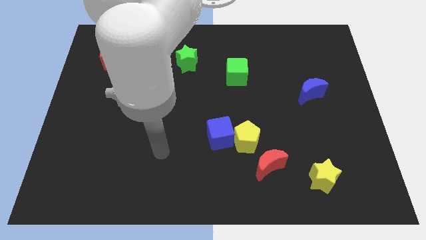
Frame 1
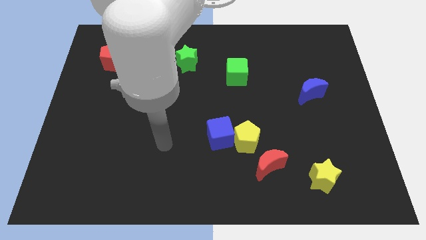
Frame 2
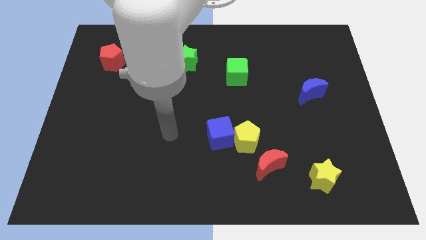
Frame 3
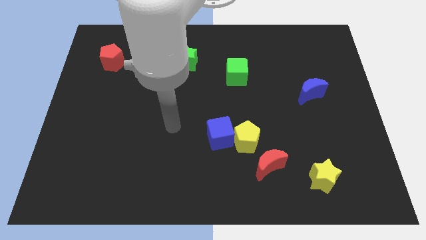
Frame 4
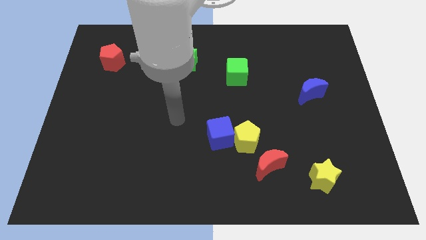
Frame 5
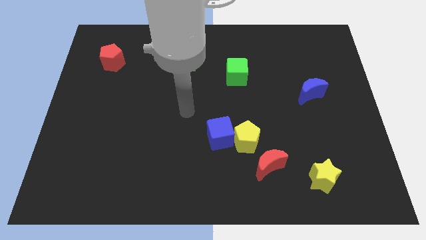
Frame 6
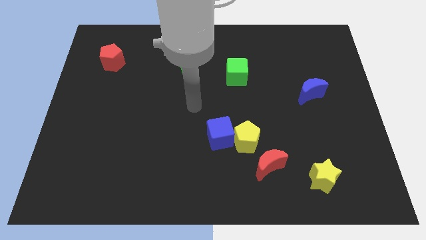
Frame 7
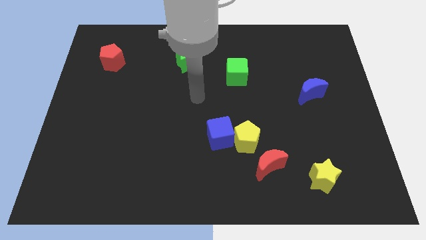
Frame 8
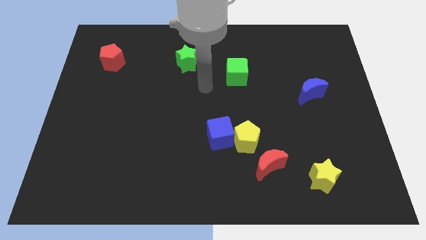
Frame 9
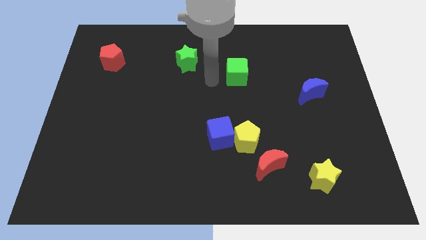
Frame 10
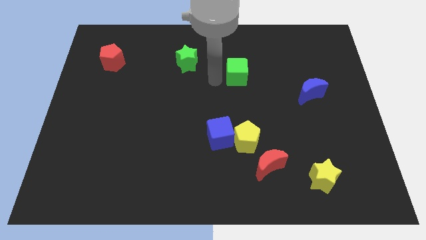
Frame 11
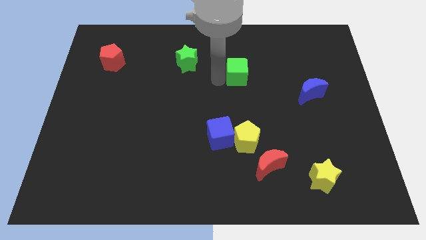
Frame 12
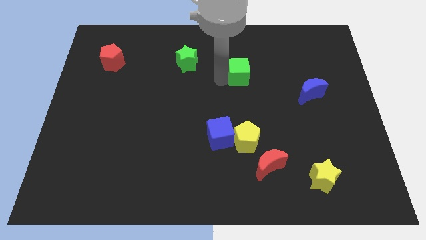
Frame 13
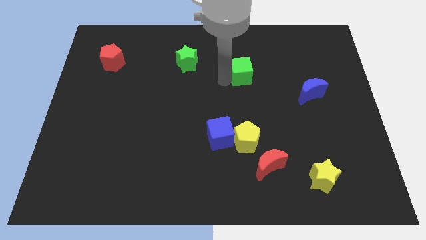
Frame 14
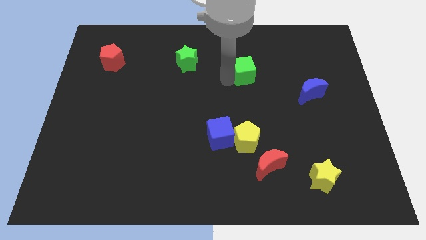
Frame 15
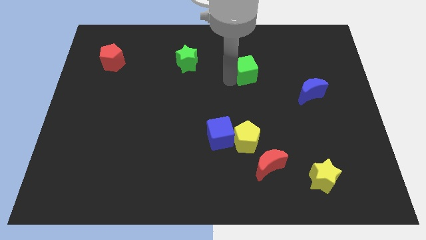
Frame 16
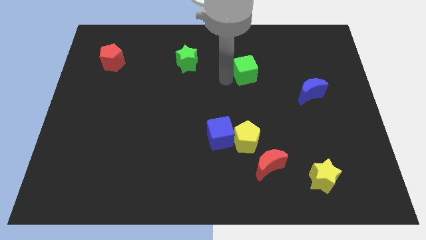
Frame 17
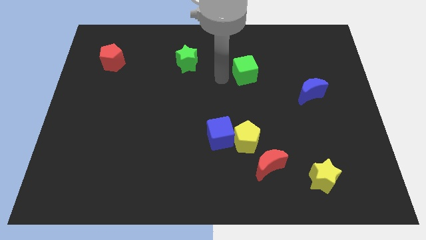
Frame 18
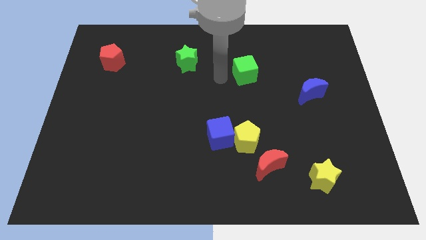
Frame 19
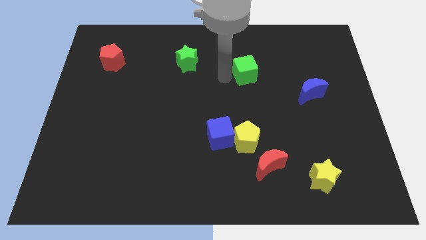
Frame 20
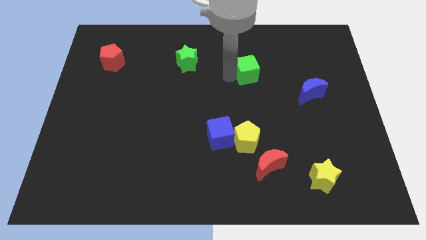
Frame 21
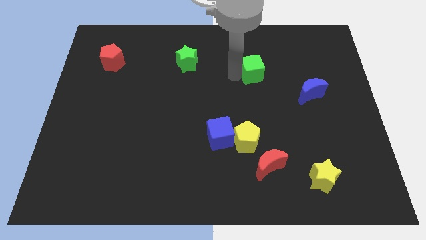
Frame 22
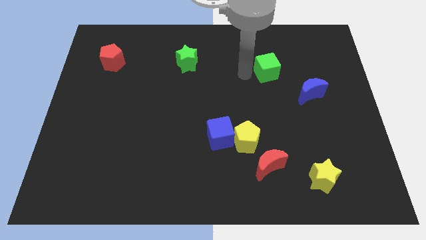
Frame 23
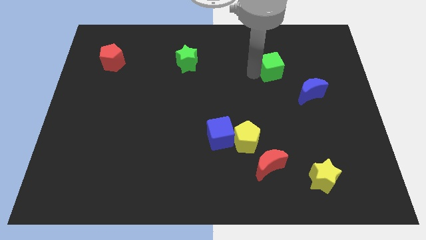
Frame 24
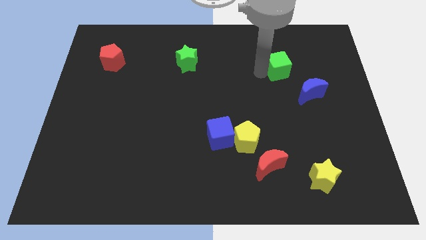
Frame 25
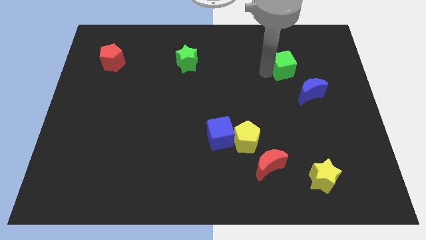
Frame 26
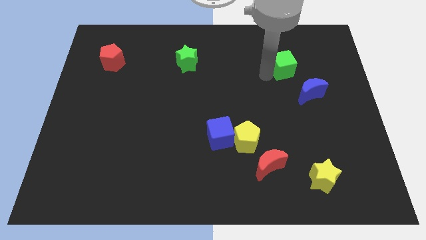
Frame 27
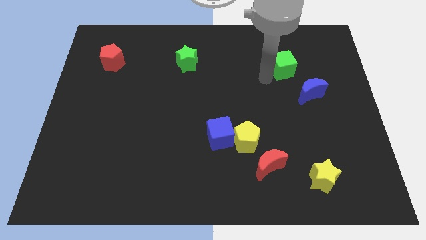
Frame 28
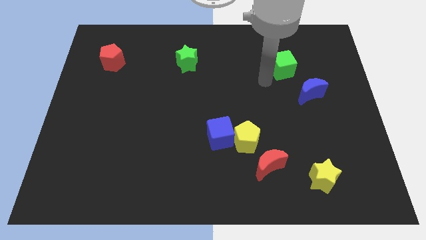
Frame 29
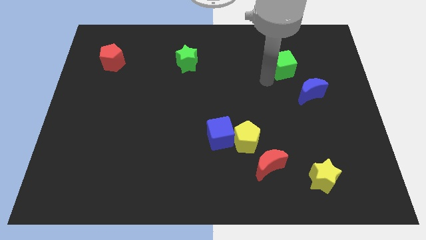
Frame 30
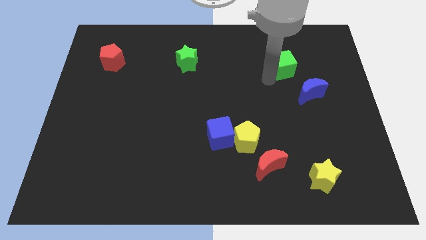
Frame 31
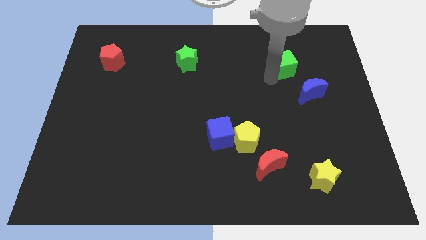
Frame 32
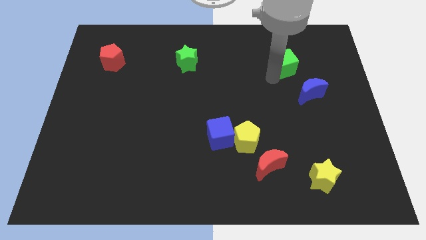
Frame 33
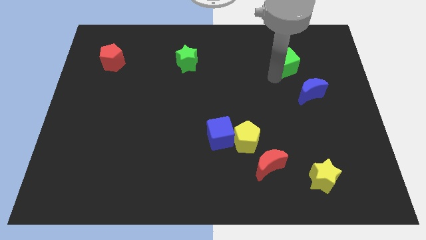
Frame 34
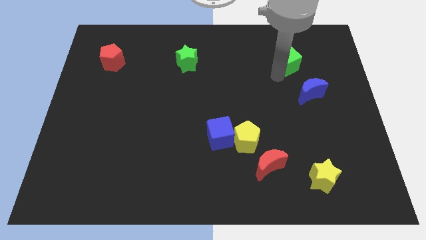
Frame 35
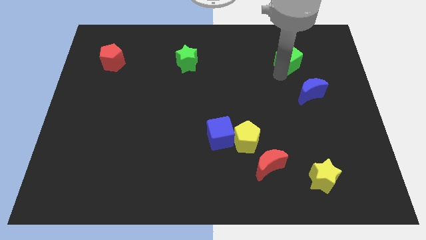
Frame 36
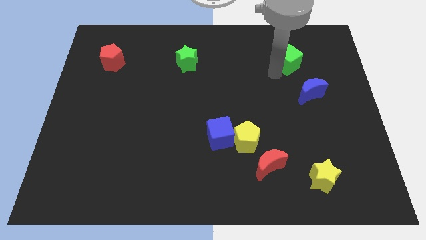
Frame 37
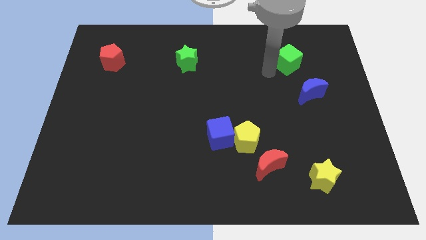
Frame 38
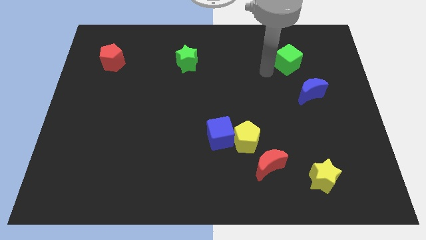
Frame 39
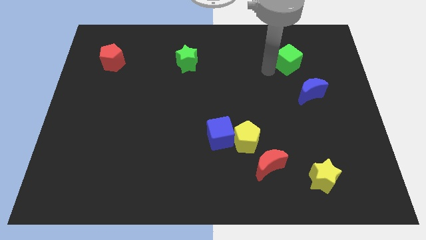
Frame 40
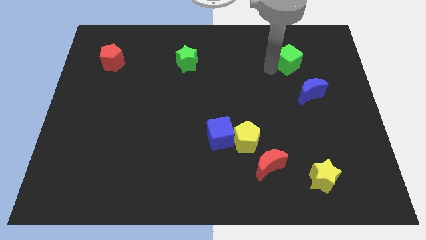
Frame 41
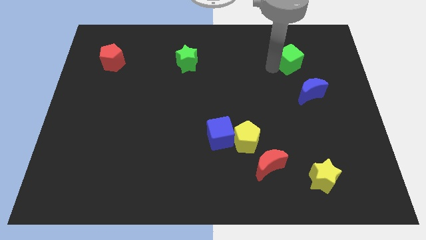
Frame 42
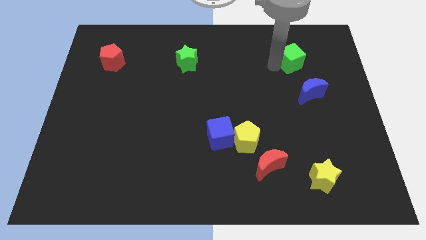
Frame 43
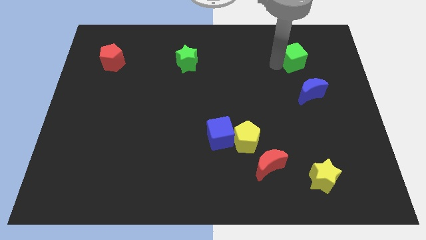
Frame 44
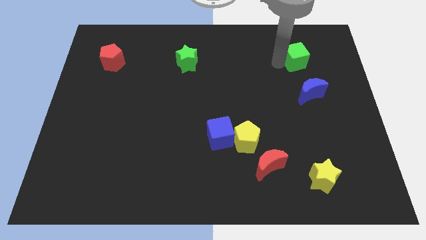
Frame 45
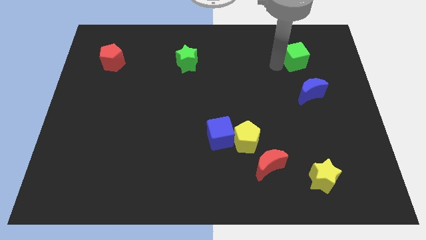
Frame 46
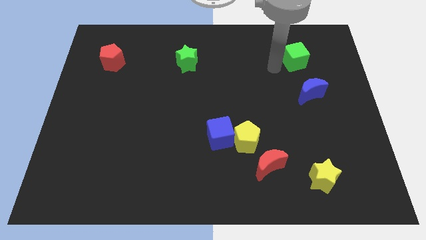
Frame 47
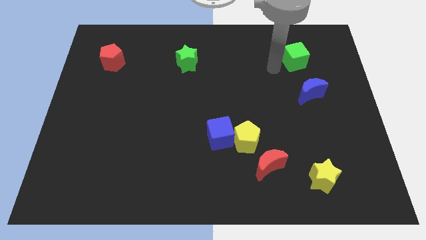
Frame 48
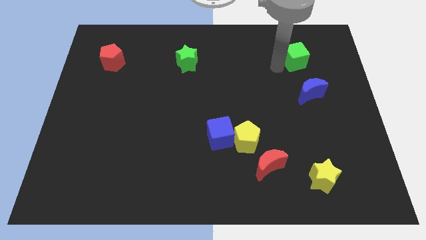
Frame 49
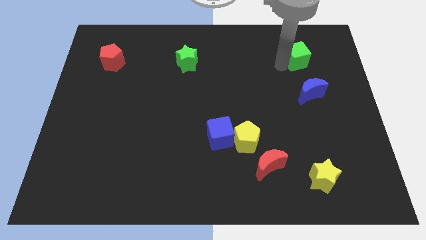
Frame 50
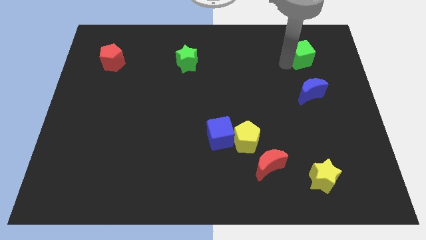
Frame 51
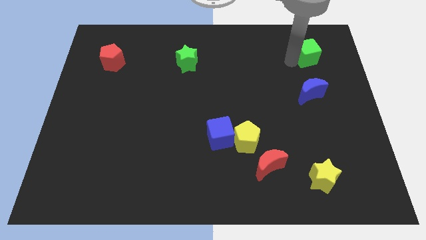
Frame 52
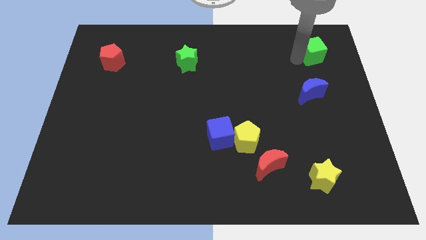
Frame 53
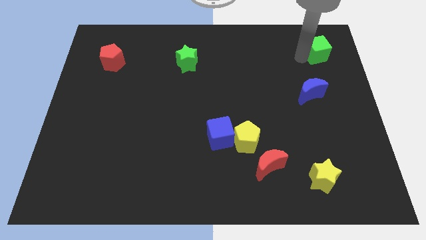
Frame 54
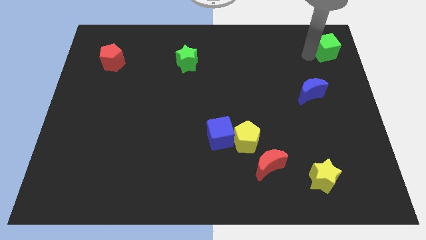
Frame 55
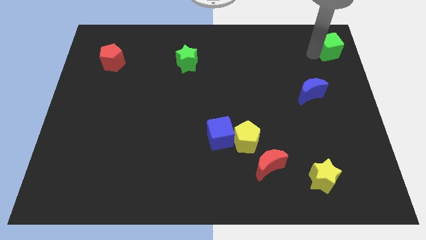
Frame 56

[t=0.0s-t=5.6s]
slide the green cube to the top right corner

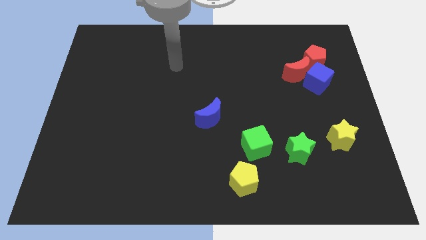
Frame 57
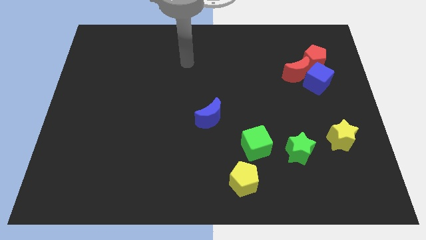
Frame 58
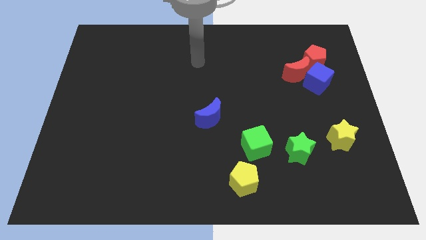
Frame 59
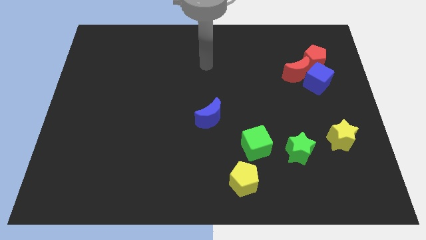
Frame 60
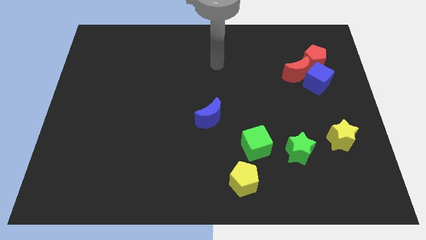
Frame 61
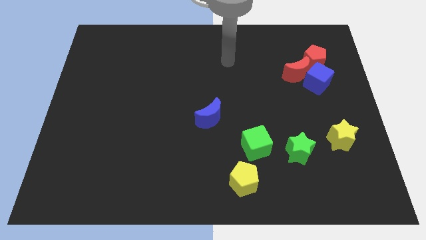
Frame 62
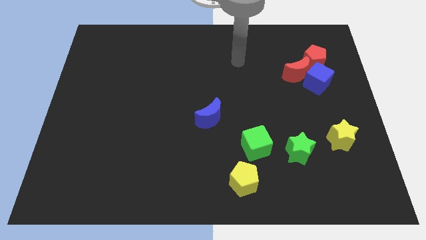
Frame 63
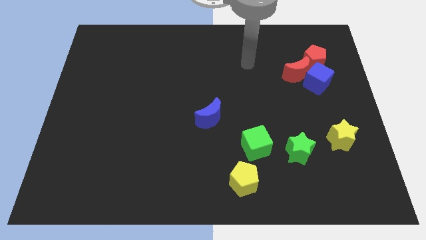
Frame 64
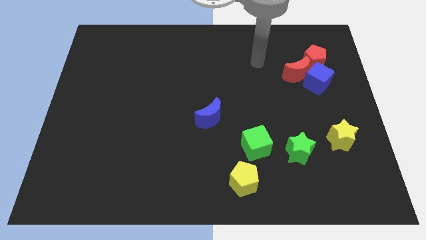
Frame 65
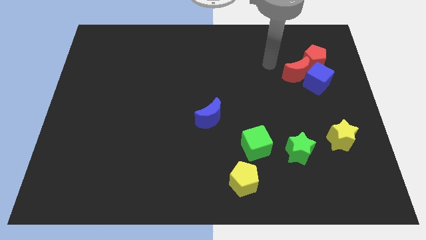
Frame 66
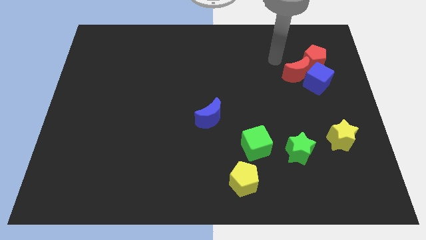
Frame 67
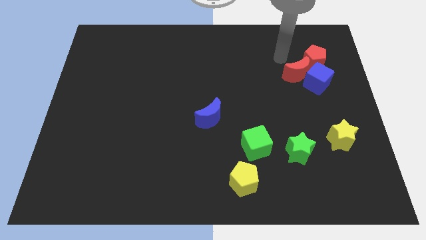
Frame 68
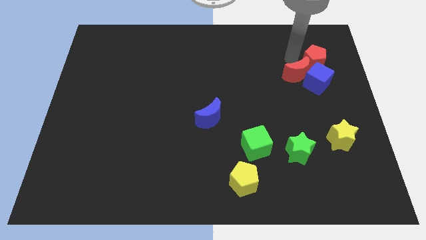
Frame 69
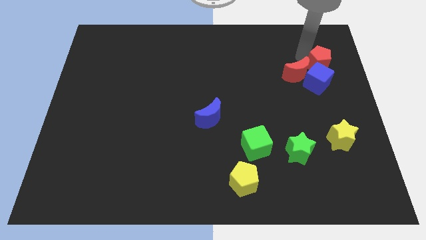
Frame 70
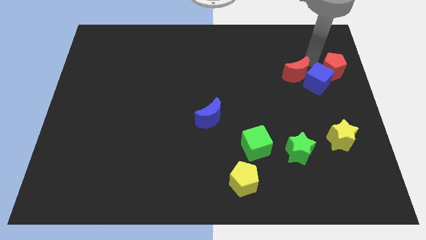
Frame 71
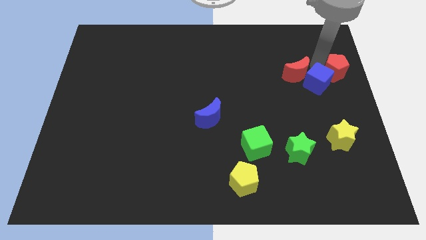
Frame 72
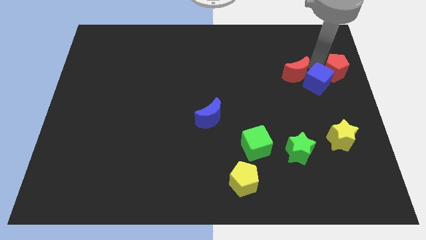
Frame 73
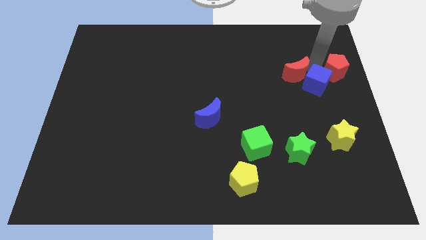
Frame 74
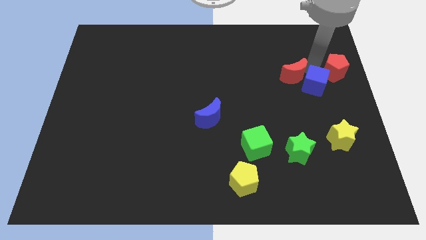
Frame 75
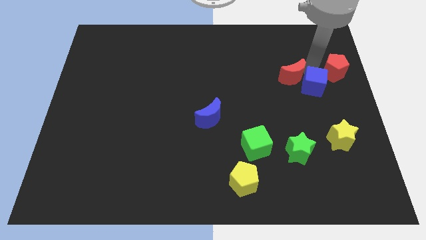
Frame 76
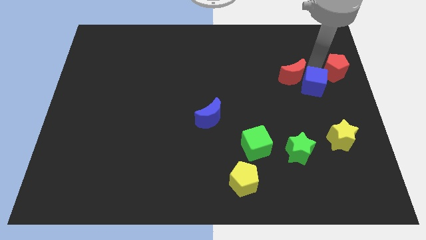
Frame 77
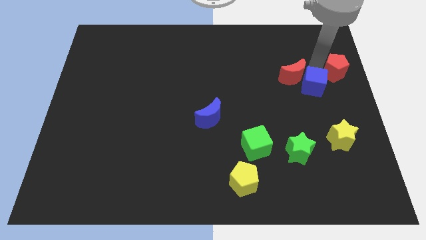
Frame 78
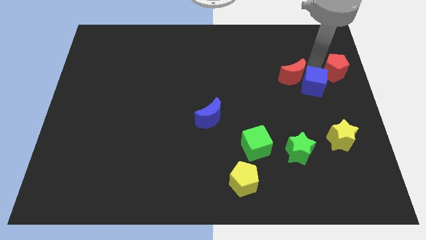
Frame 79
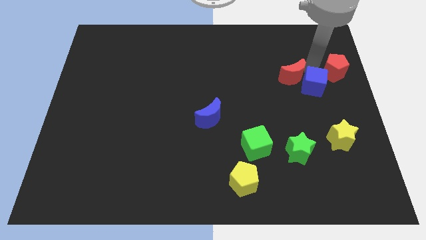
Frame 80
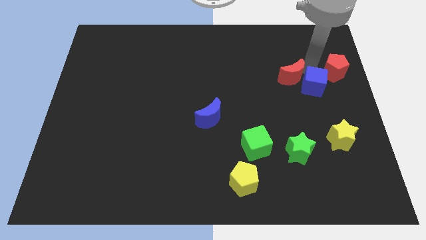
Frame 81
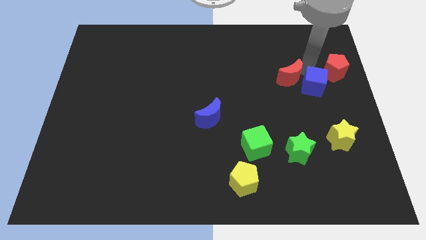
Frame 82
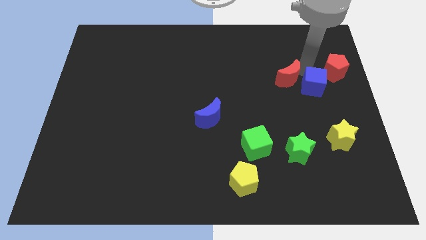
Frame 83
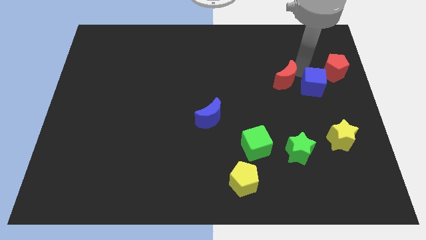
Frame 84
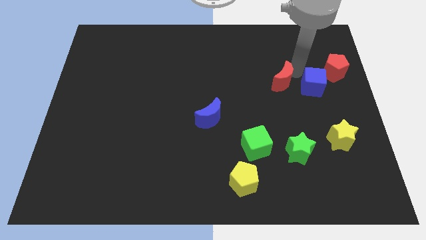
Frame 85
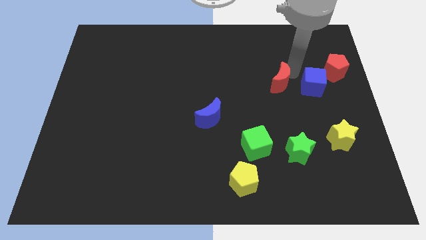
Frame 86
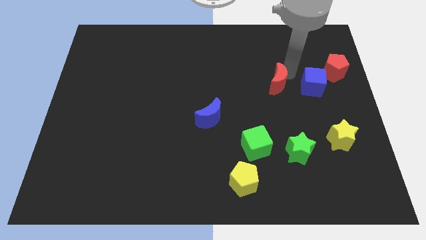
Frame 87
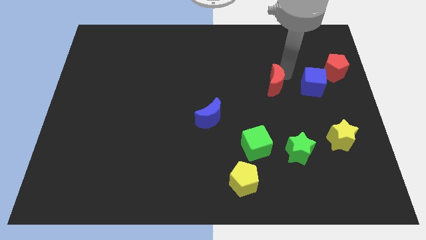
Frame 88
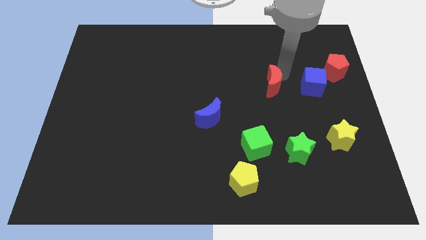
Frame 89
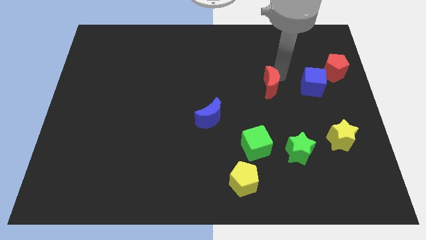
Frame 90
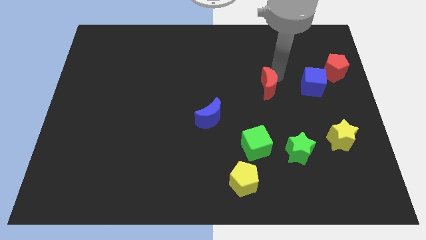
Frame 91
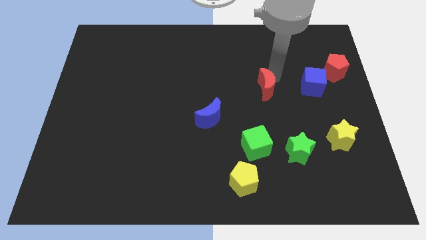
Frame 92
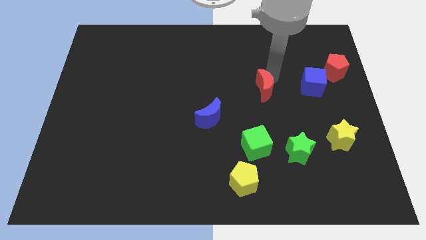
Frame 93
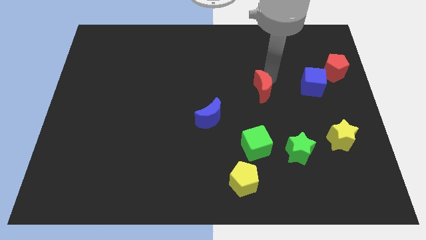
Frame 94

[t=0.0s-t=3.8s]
move the red moon to the center
